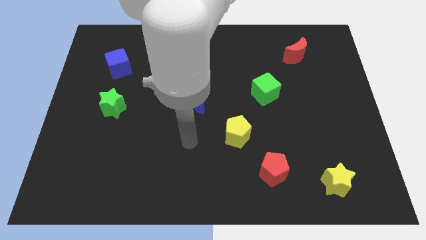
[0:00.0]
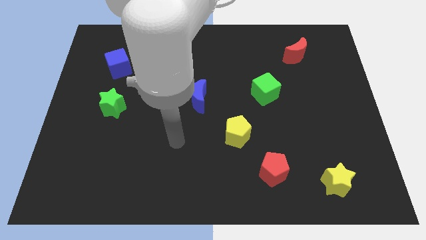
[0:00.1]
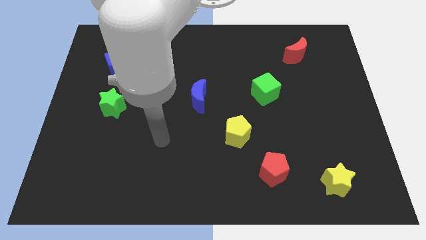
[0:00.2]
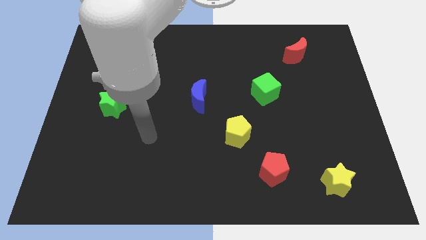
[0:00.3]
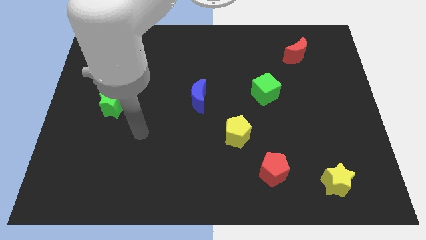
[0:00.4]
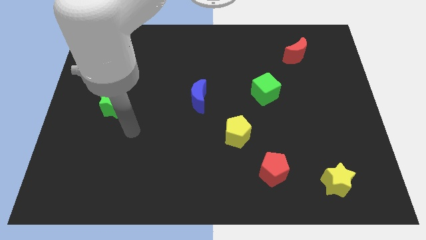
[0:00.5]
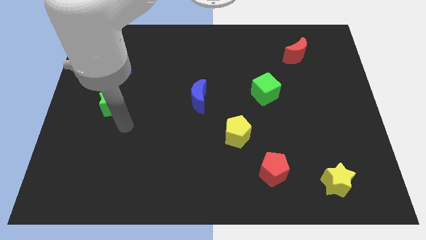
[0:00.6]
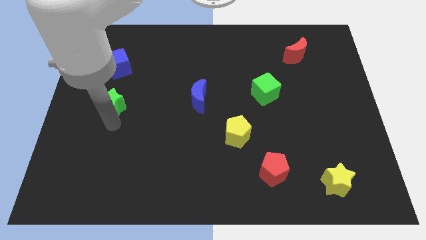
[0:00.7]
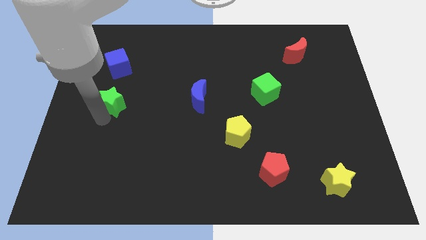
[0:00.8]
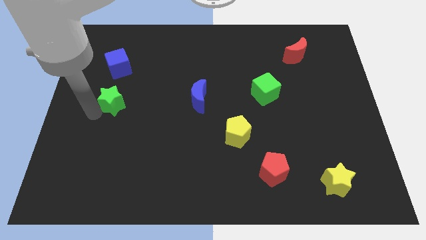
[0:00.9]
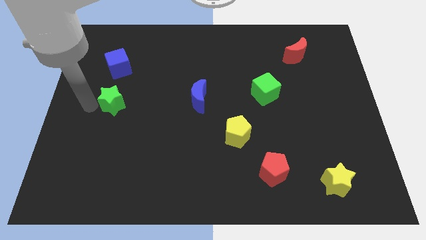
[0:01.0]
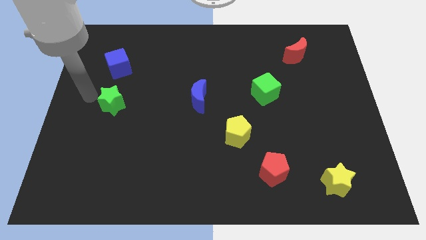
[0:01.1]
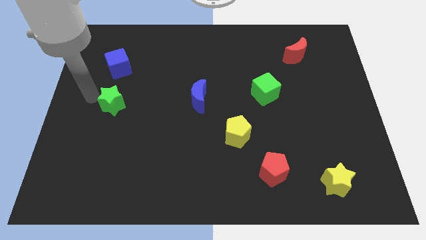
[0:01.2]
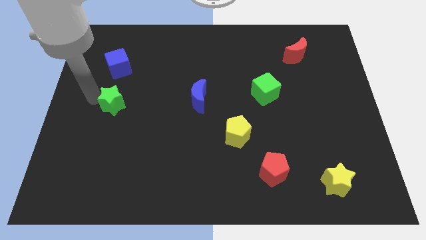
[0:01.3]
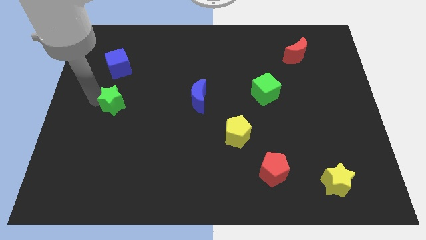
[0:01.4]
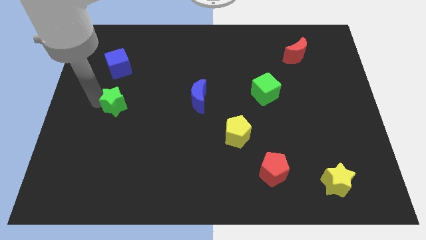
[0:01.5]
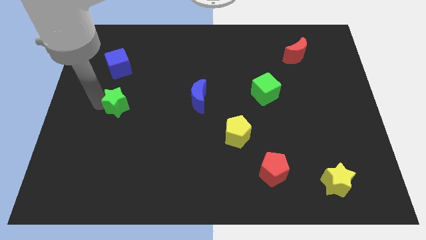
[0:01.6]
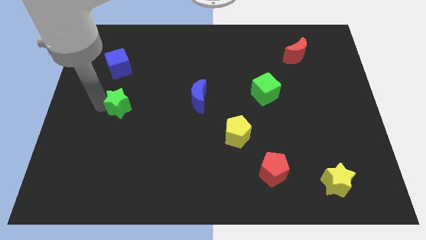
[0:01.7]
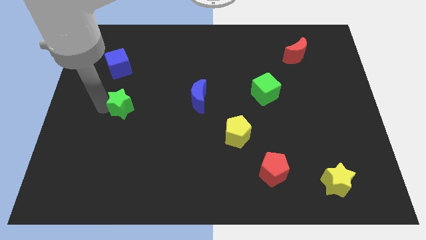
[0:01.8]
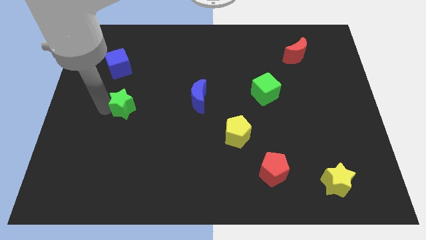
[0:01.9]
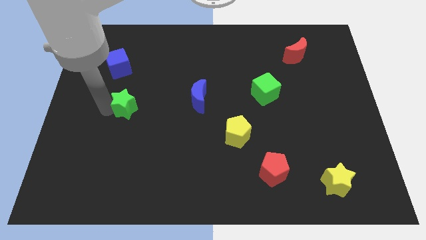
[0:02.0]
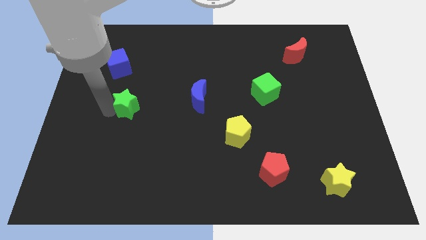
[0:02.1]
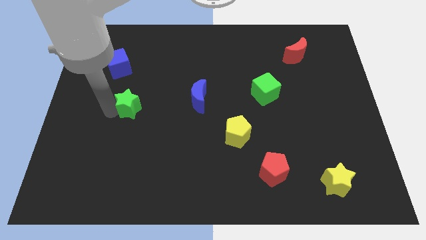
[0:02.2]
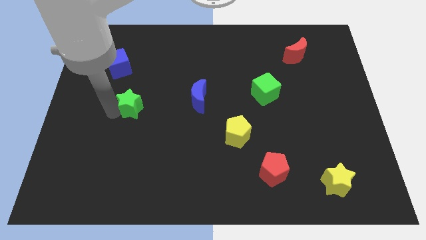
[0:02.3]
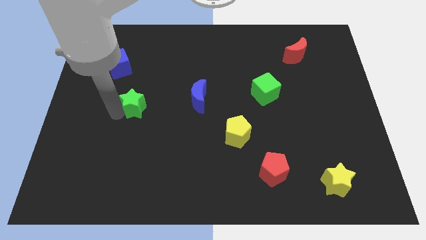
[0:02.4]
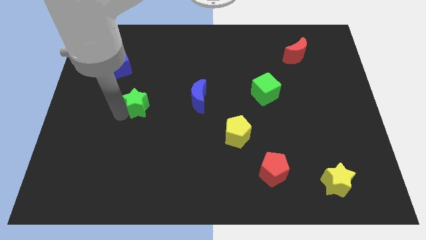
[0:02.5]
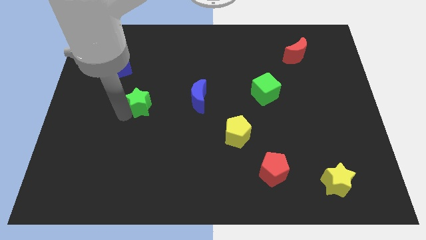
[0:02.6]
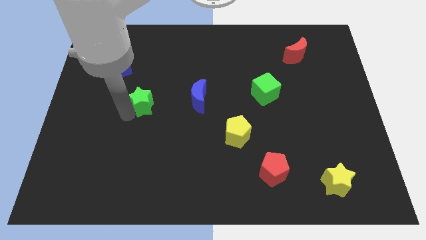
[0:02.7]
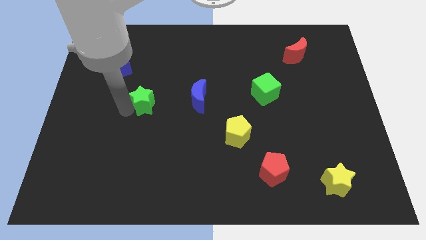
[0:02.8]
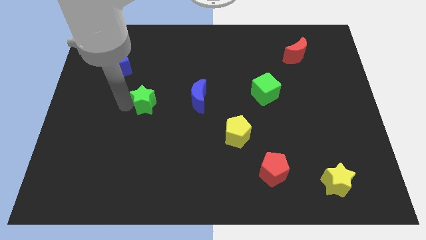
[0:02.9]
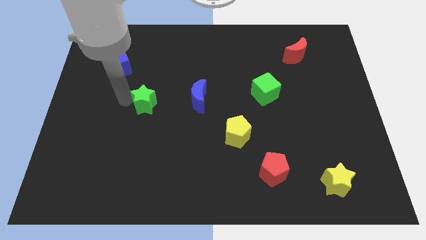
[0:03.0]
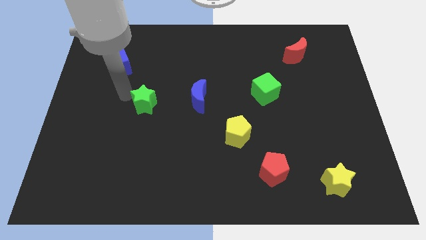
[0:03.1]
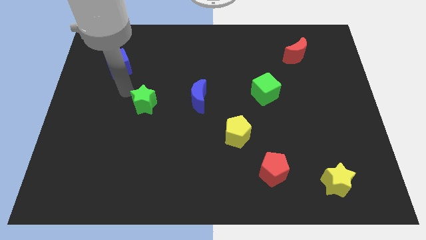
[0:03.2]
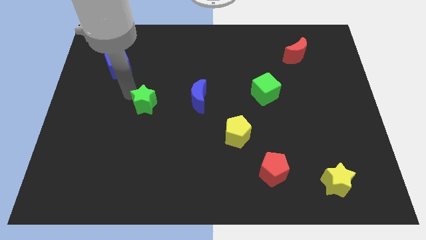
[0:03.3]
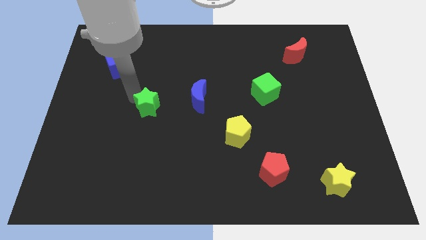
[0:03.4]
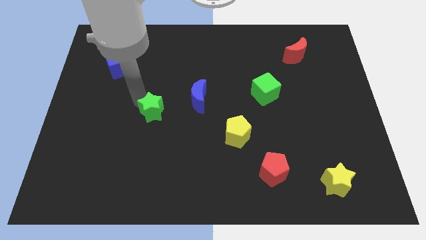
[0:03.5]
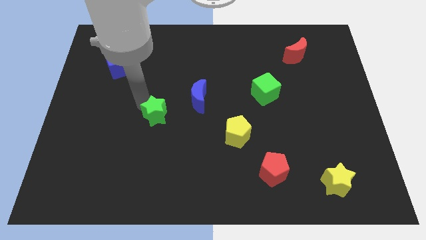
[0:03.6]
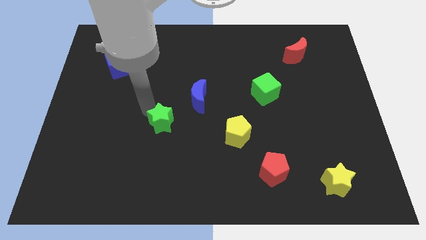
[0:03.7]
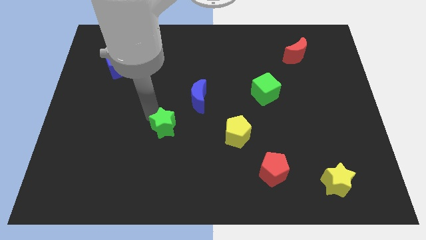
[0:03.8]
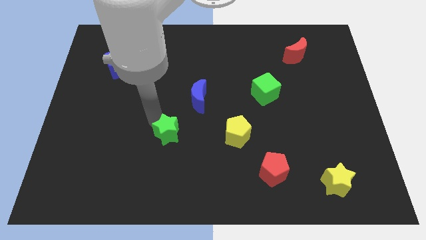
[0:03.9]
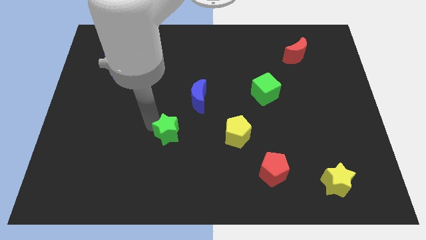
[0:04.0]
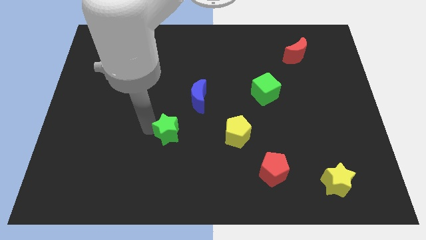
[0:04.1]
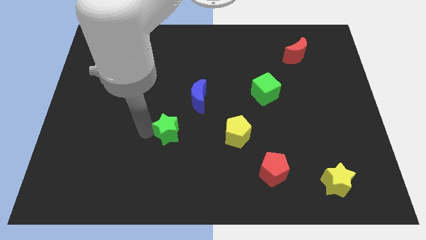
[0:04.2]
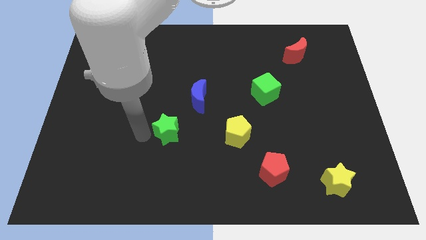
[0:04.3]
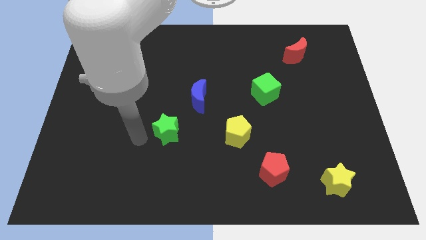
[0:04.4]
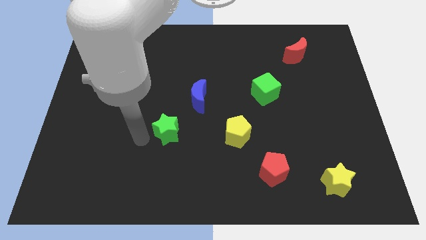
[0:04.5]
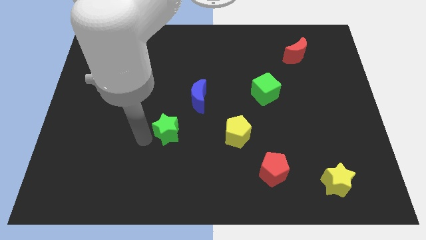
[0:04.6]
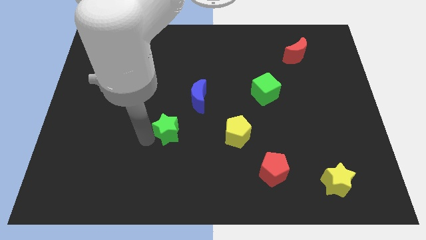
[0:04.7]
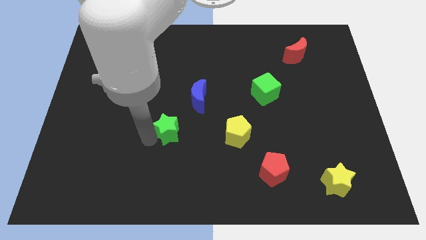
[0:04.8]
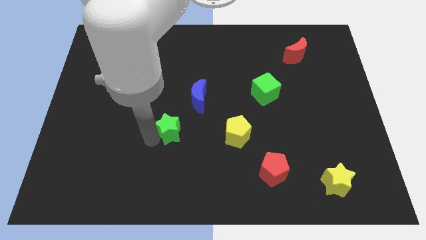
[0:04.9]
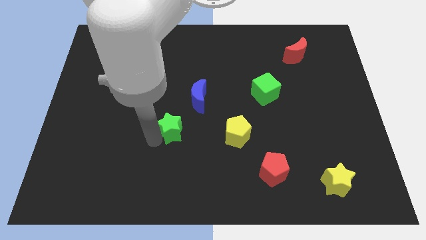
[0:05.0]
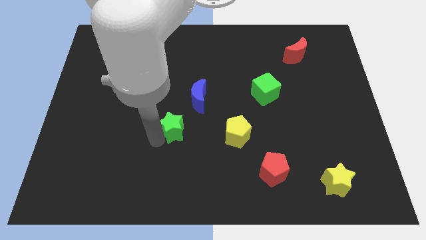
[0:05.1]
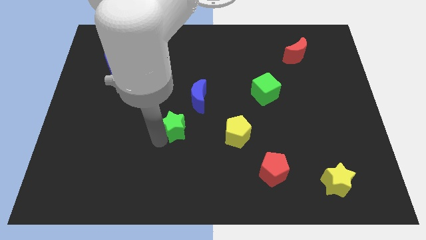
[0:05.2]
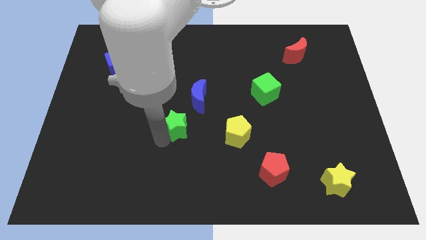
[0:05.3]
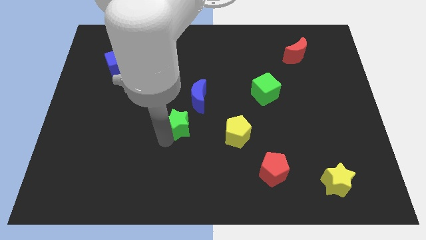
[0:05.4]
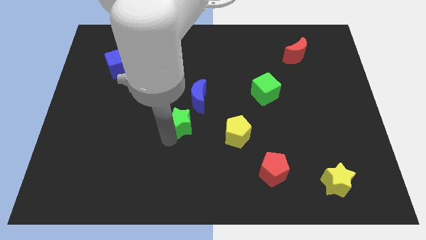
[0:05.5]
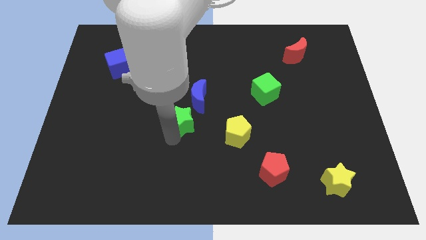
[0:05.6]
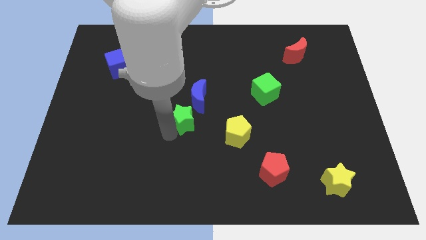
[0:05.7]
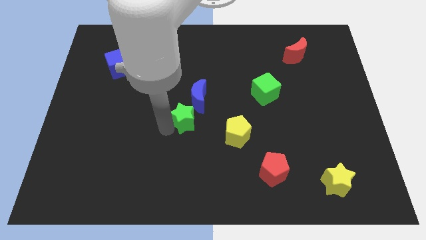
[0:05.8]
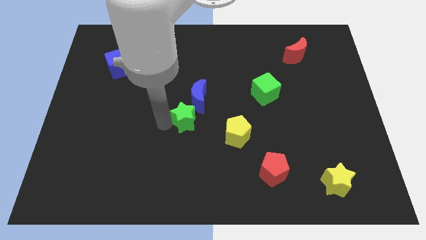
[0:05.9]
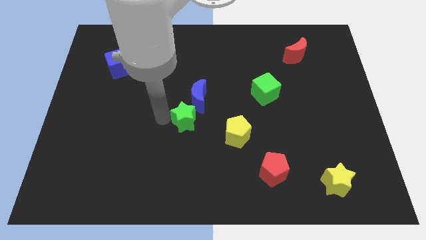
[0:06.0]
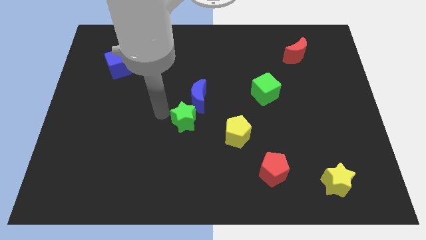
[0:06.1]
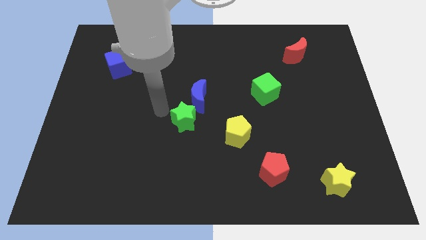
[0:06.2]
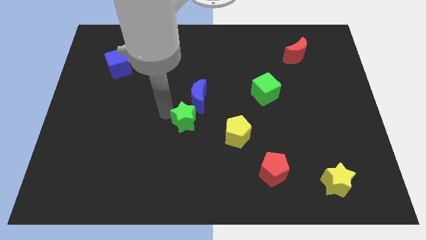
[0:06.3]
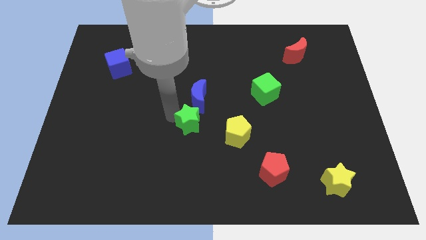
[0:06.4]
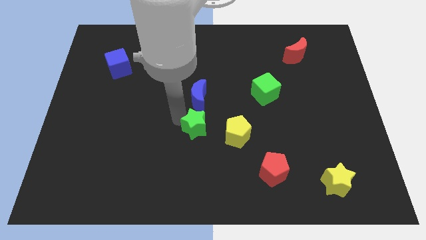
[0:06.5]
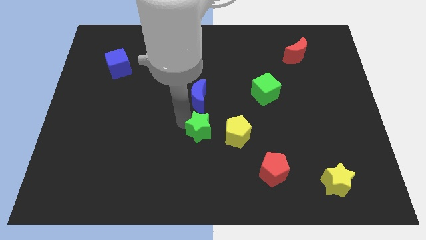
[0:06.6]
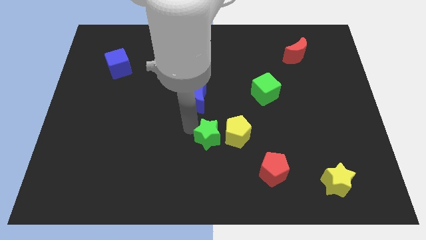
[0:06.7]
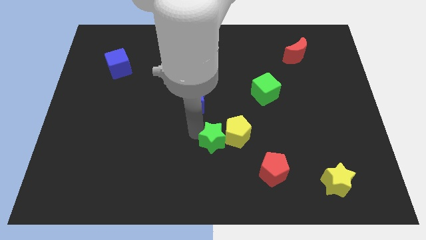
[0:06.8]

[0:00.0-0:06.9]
move the green star next to the yellow pentagon

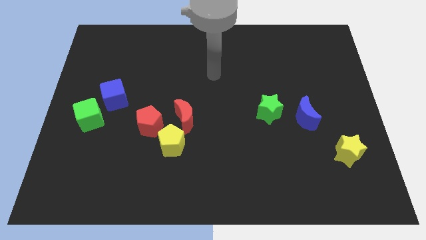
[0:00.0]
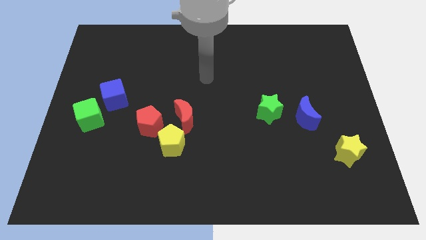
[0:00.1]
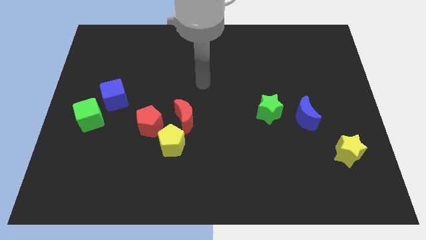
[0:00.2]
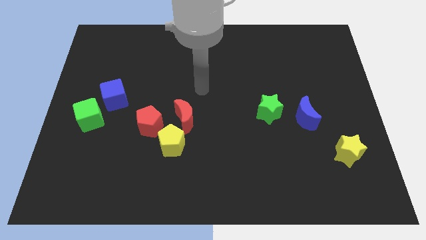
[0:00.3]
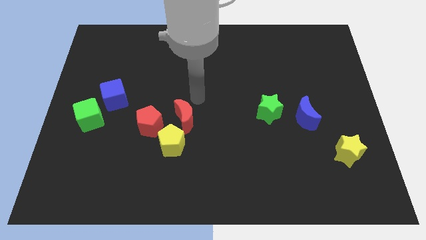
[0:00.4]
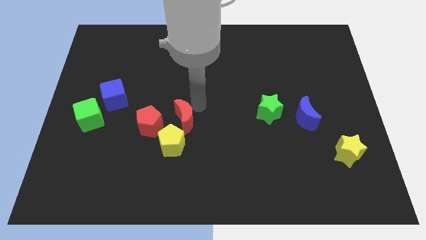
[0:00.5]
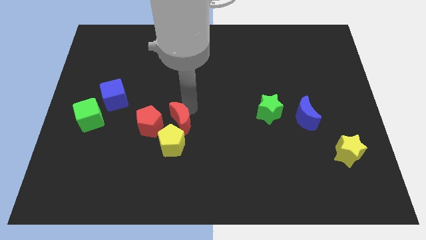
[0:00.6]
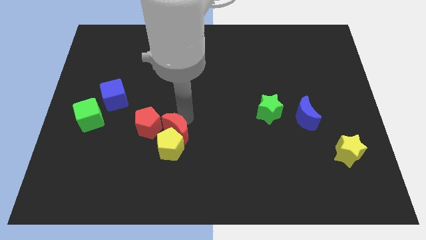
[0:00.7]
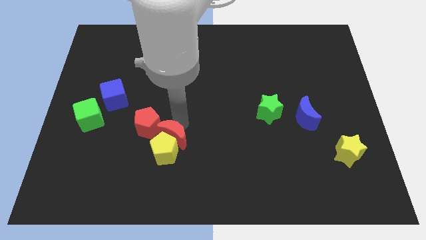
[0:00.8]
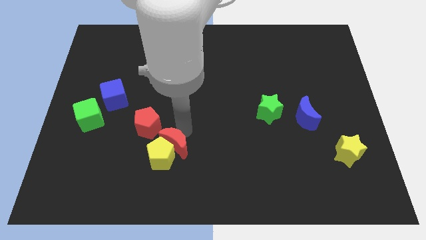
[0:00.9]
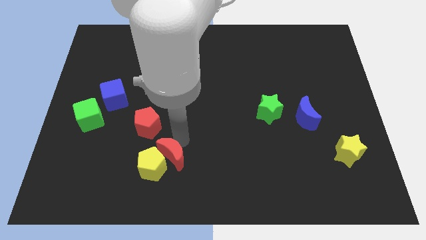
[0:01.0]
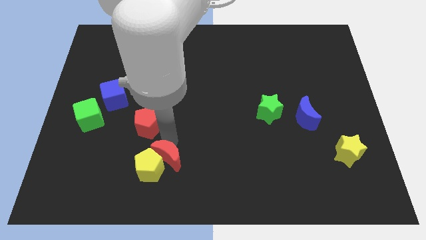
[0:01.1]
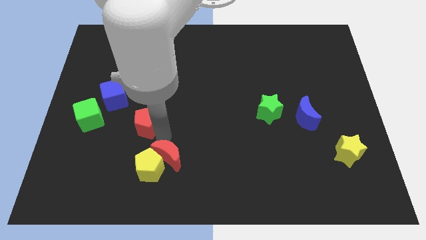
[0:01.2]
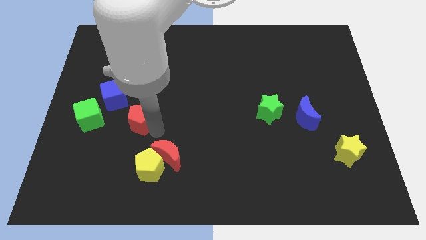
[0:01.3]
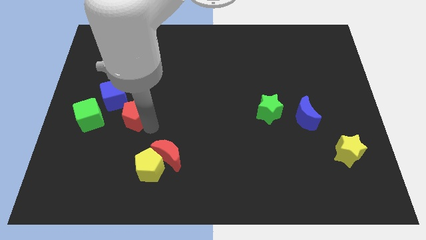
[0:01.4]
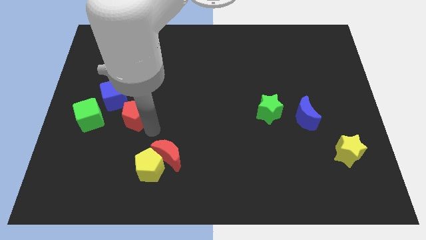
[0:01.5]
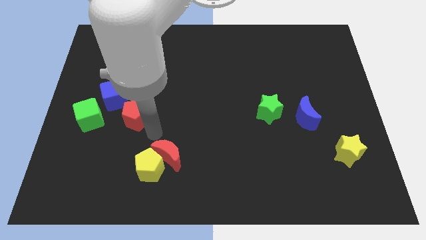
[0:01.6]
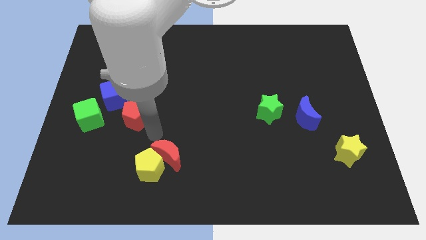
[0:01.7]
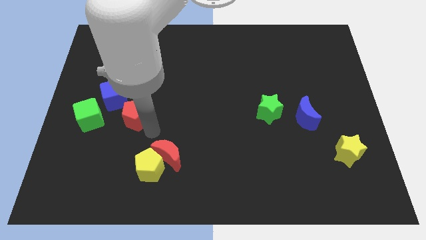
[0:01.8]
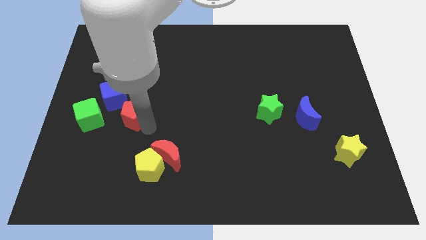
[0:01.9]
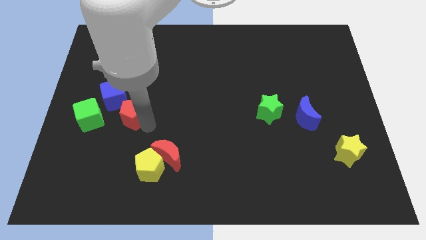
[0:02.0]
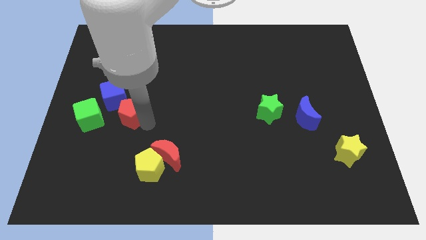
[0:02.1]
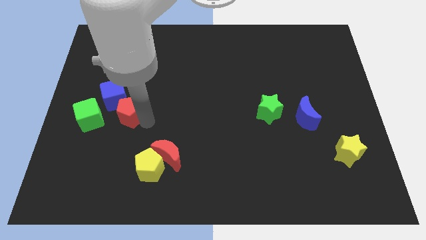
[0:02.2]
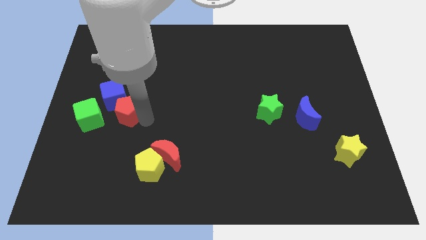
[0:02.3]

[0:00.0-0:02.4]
push the red pentagon close to the blue cube
